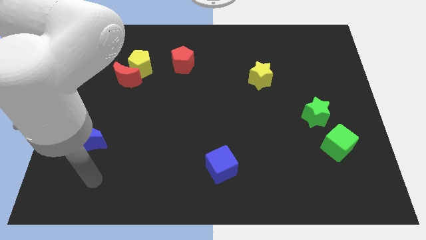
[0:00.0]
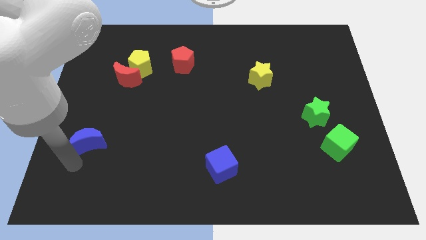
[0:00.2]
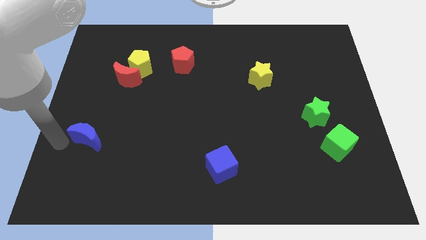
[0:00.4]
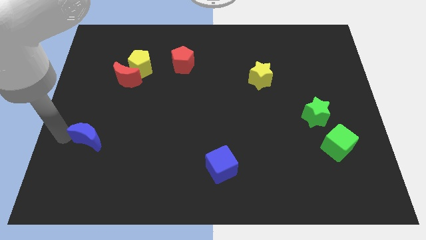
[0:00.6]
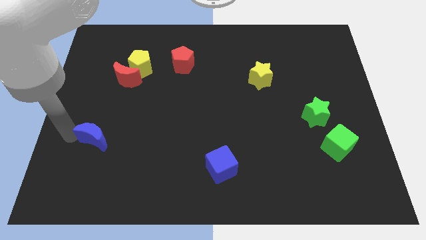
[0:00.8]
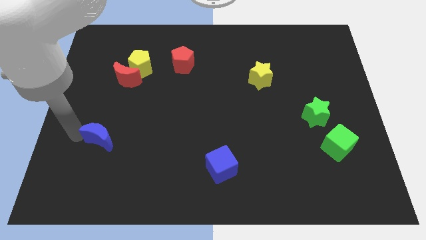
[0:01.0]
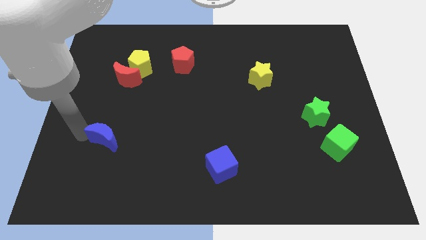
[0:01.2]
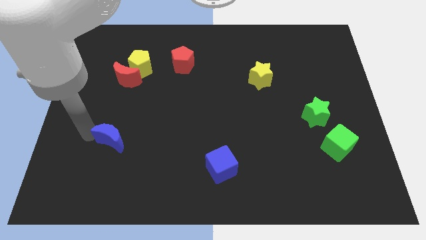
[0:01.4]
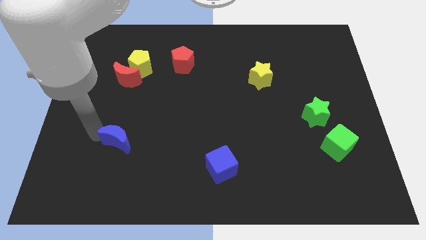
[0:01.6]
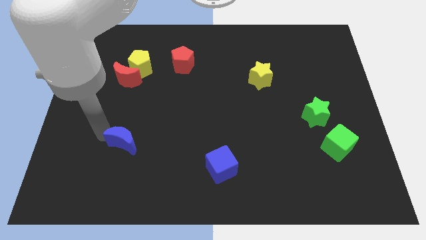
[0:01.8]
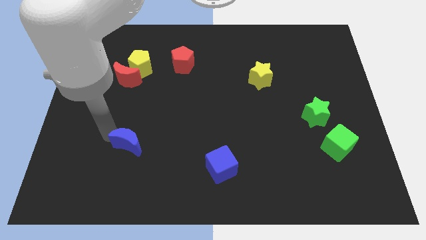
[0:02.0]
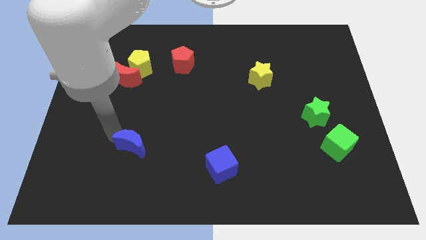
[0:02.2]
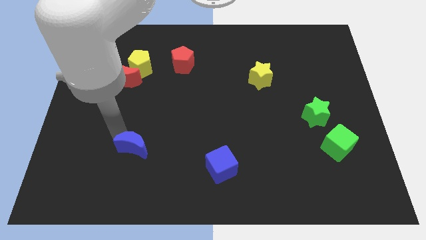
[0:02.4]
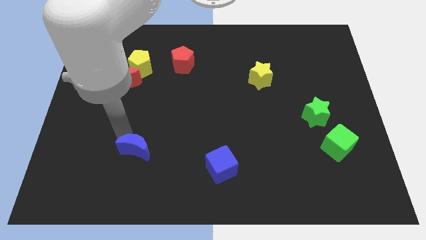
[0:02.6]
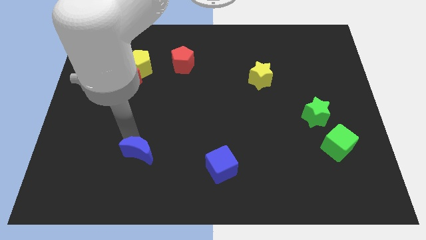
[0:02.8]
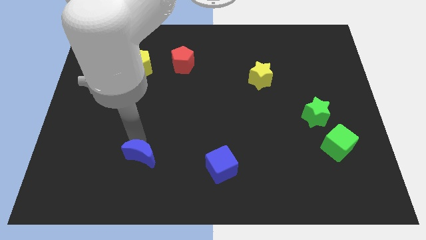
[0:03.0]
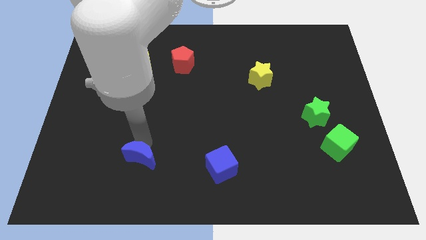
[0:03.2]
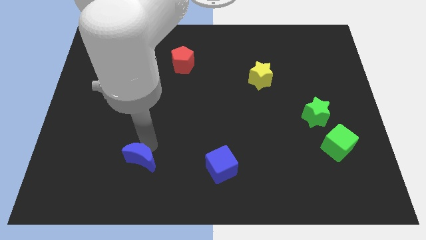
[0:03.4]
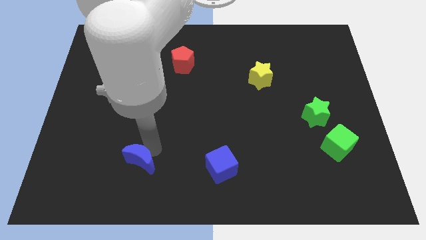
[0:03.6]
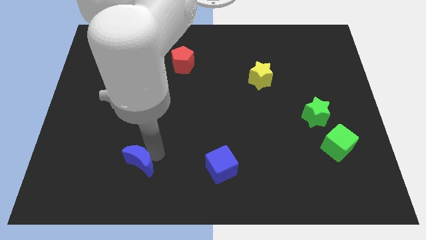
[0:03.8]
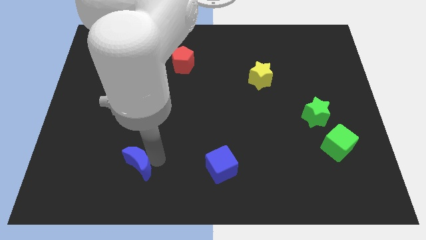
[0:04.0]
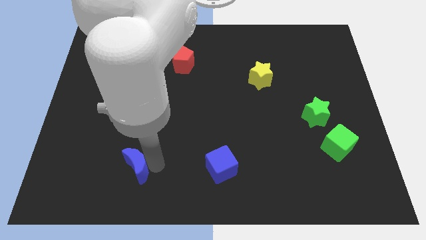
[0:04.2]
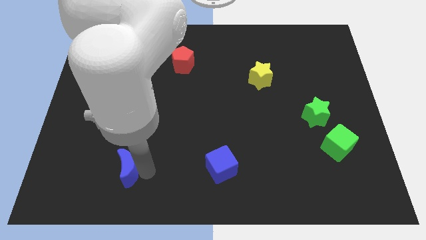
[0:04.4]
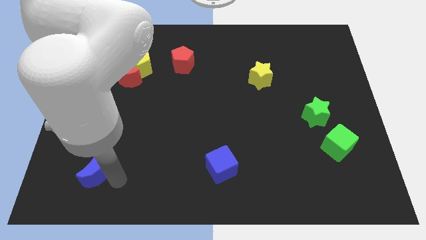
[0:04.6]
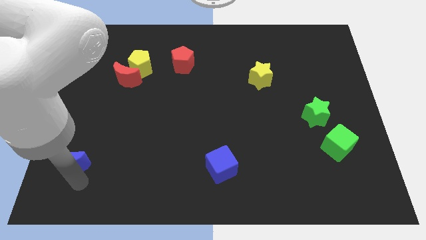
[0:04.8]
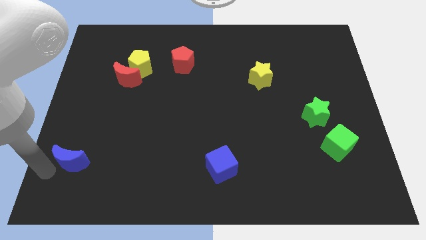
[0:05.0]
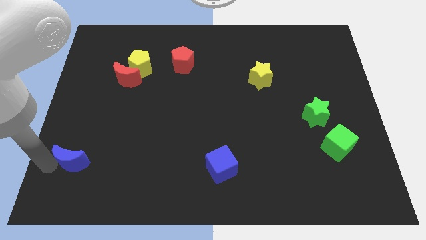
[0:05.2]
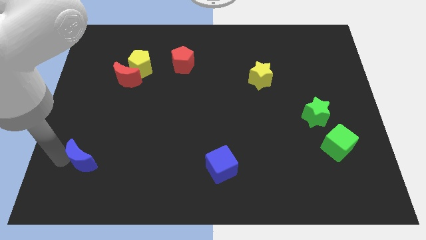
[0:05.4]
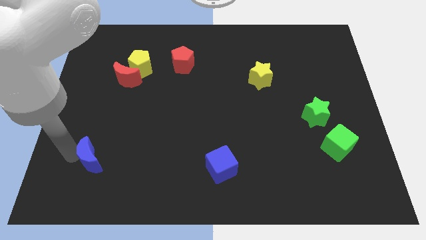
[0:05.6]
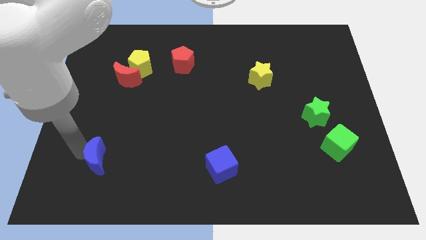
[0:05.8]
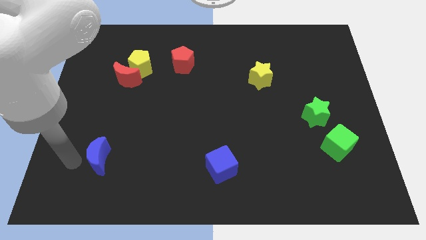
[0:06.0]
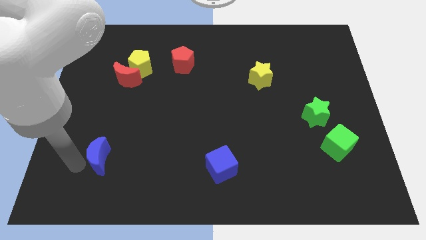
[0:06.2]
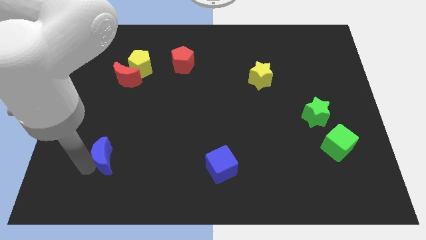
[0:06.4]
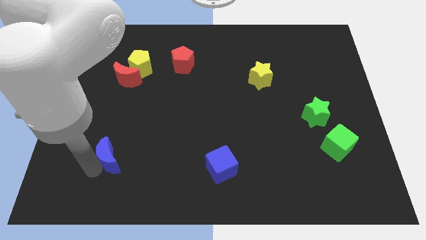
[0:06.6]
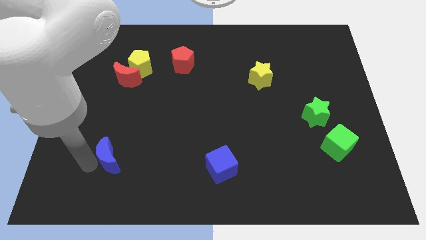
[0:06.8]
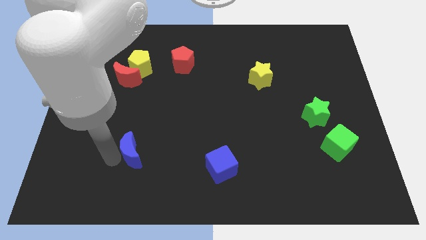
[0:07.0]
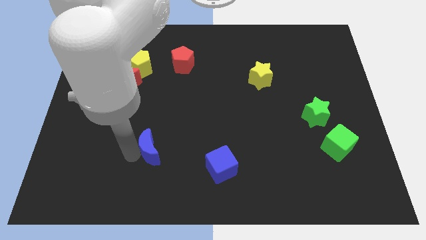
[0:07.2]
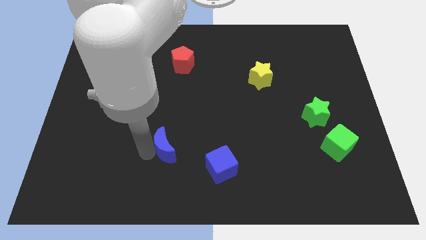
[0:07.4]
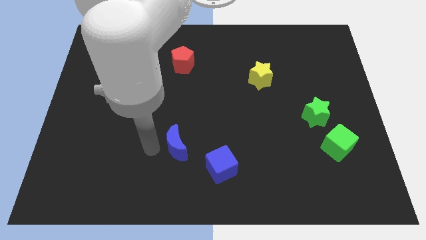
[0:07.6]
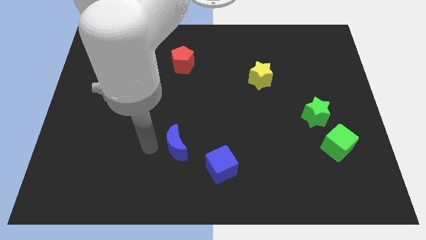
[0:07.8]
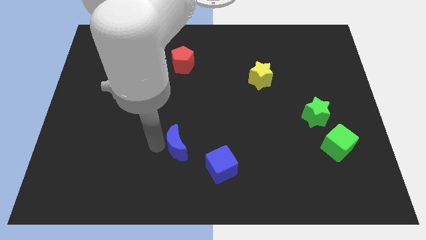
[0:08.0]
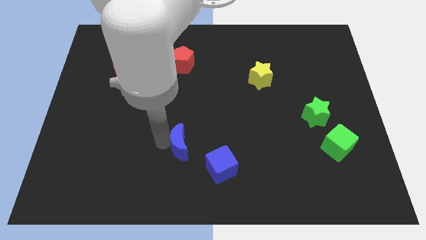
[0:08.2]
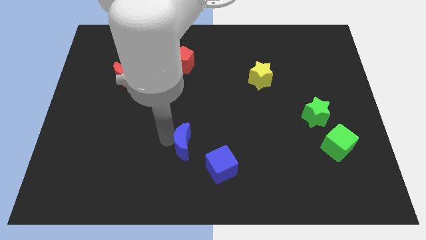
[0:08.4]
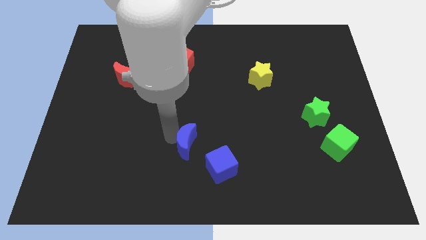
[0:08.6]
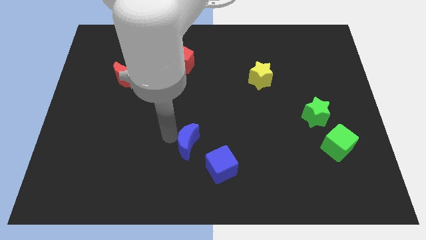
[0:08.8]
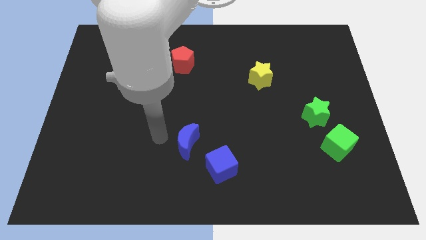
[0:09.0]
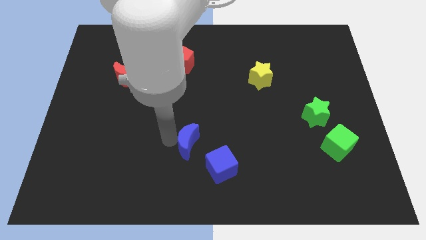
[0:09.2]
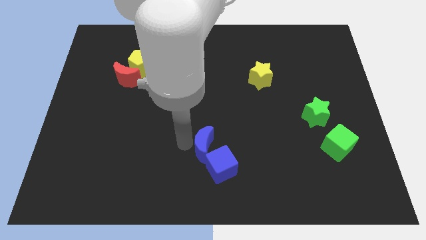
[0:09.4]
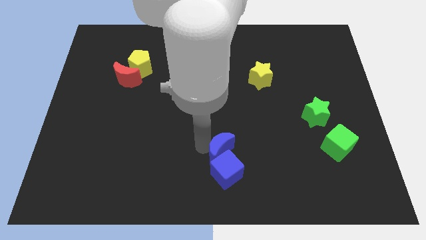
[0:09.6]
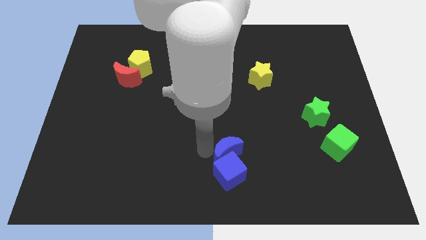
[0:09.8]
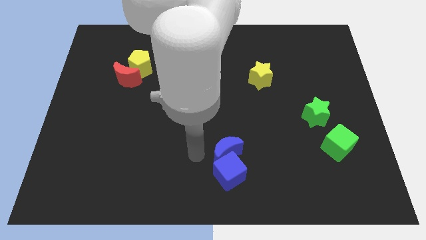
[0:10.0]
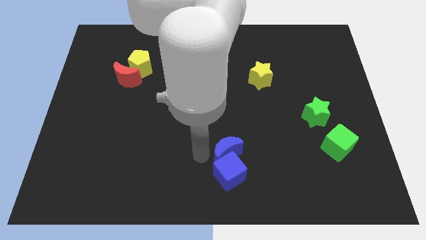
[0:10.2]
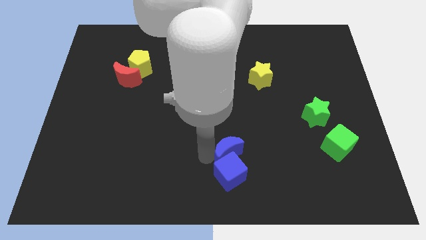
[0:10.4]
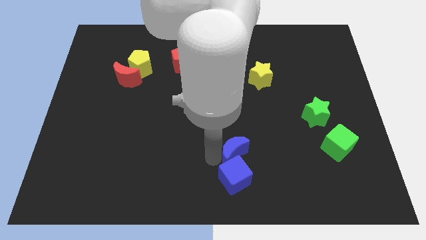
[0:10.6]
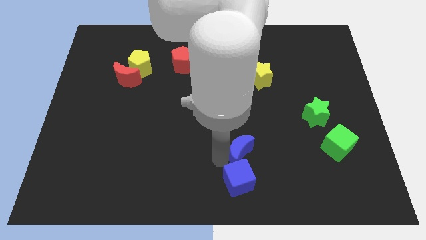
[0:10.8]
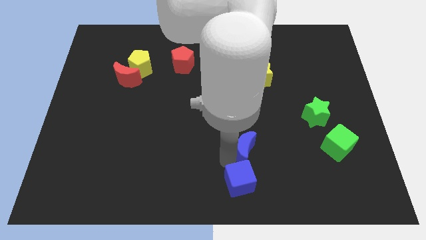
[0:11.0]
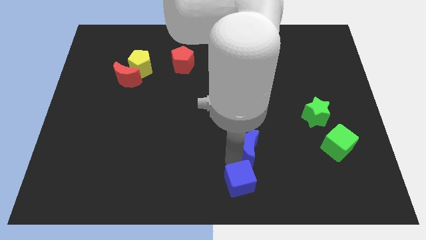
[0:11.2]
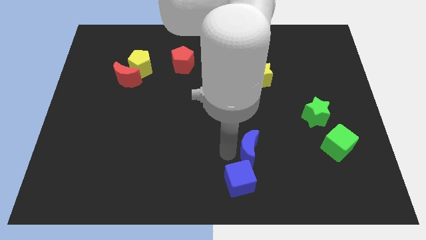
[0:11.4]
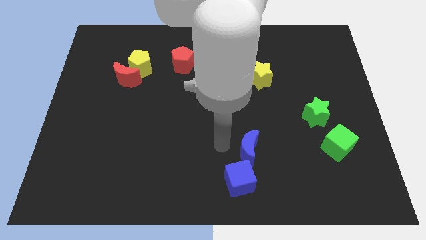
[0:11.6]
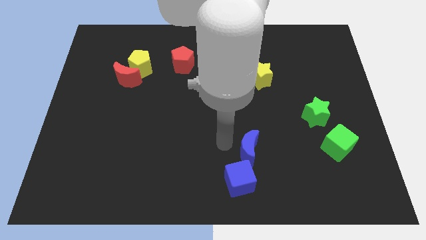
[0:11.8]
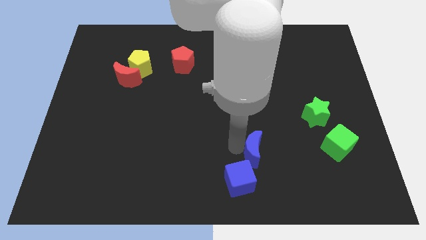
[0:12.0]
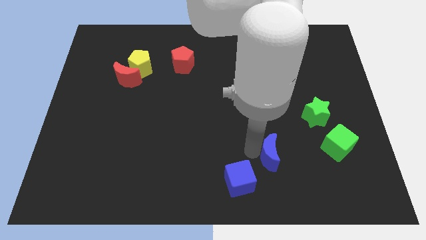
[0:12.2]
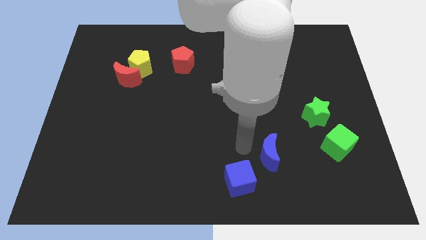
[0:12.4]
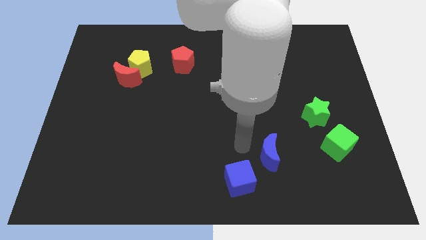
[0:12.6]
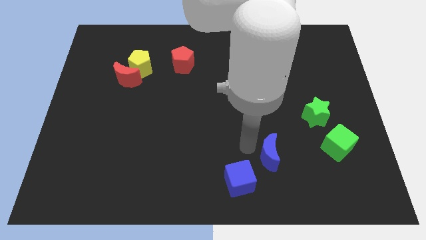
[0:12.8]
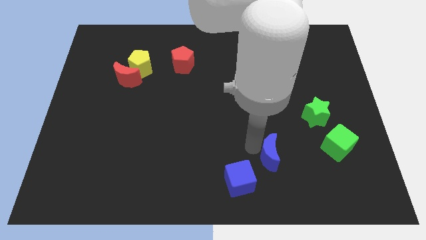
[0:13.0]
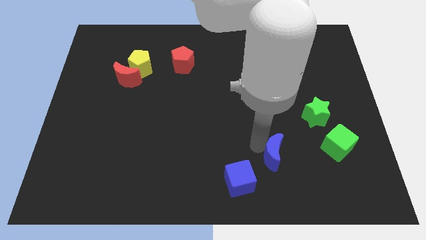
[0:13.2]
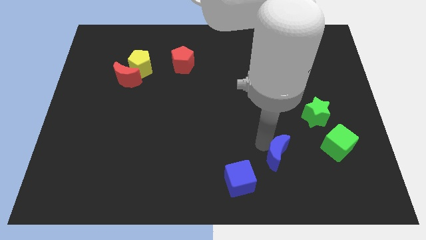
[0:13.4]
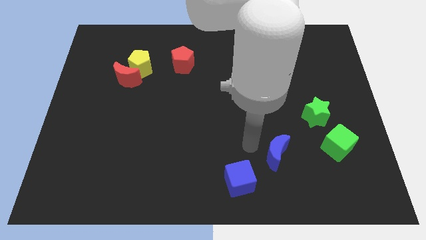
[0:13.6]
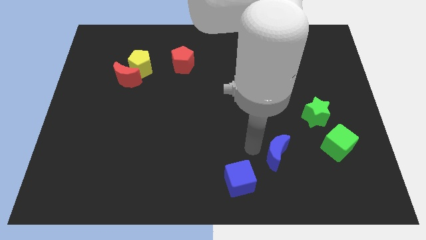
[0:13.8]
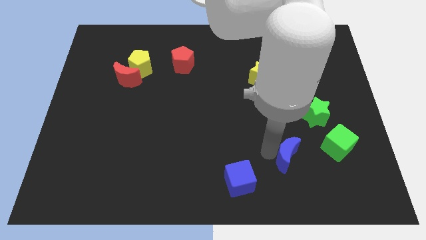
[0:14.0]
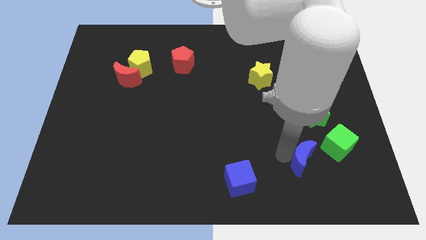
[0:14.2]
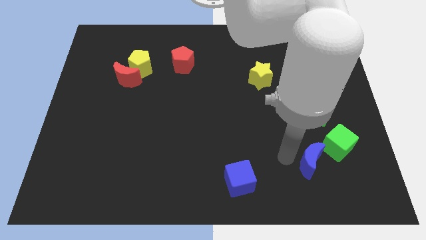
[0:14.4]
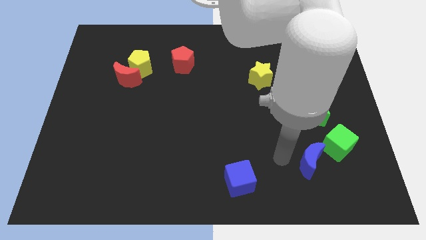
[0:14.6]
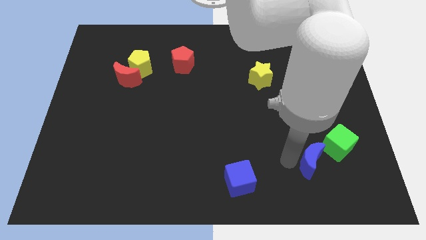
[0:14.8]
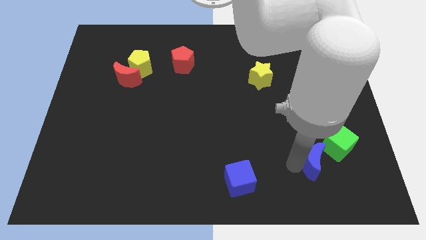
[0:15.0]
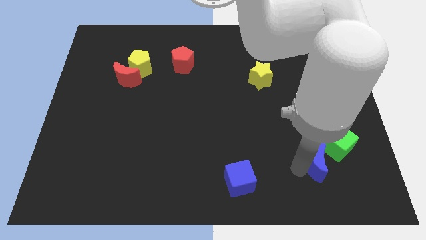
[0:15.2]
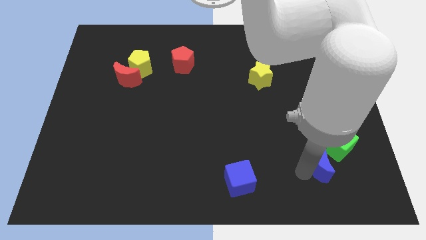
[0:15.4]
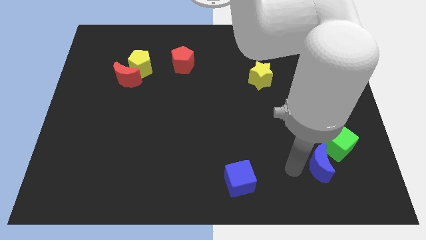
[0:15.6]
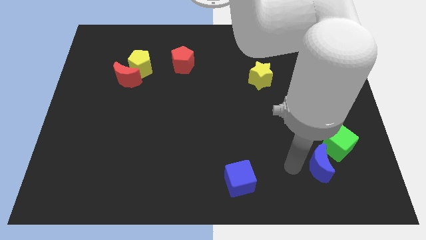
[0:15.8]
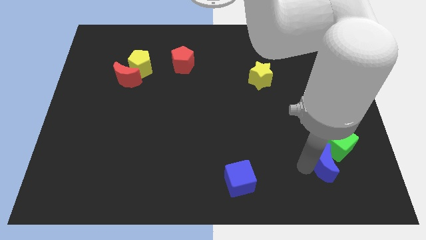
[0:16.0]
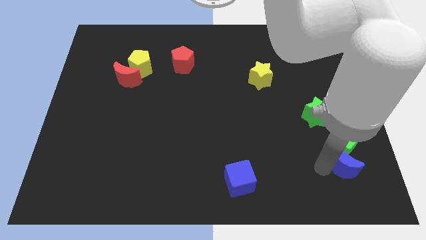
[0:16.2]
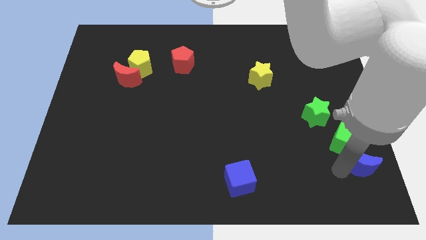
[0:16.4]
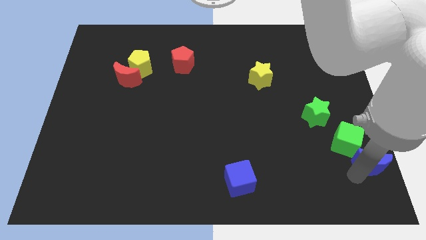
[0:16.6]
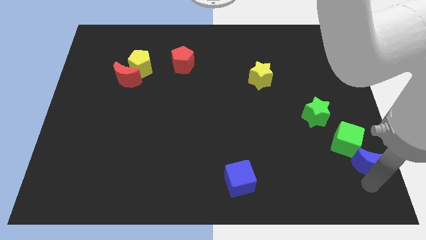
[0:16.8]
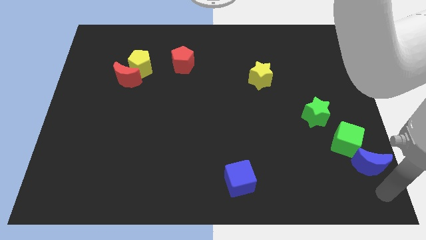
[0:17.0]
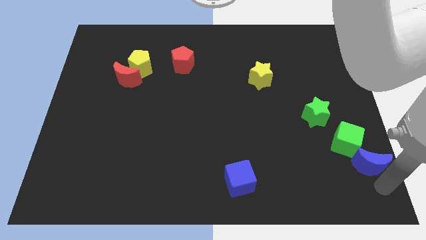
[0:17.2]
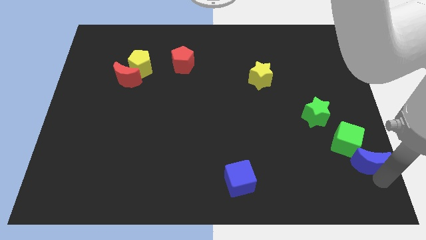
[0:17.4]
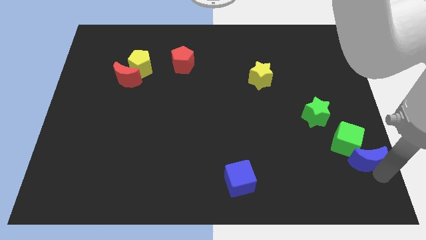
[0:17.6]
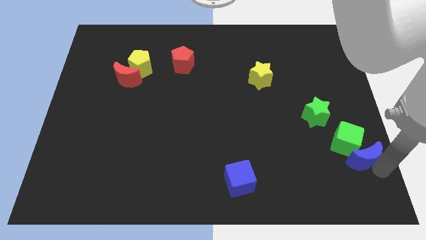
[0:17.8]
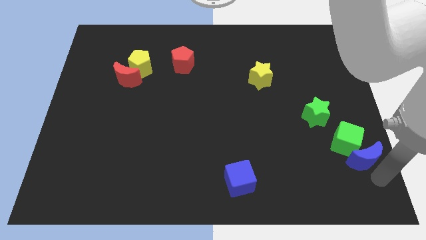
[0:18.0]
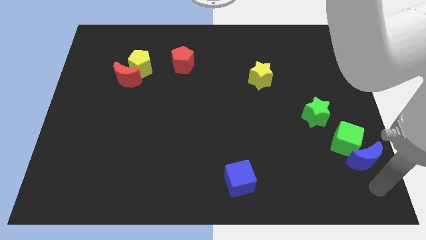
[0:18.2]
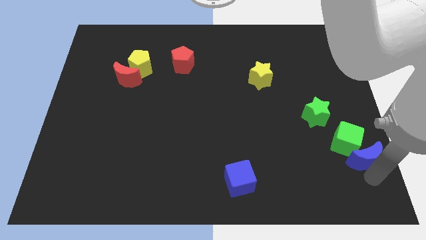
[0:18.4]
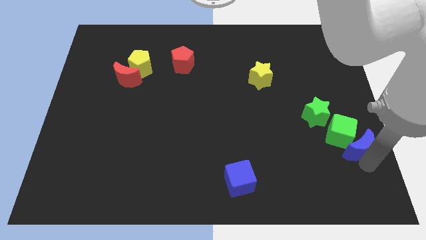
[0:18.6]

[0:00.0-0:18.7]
move the blue moon to the bottom right side of the green star
